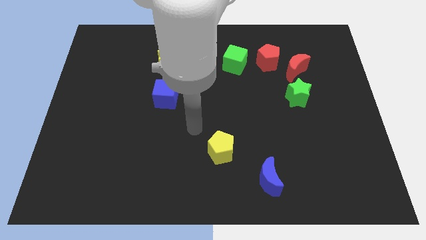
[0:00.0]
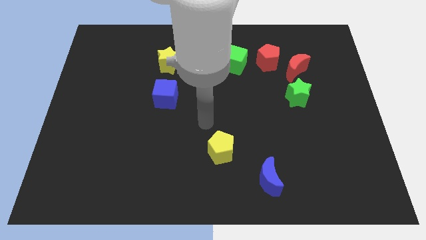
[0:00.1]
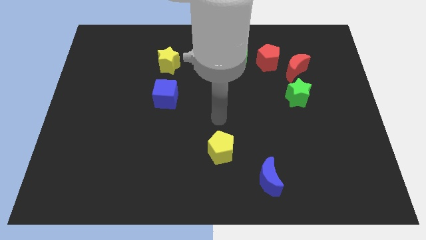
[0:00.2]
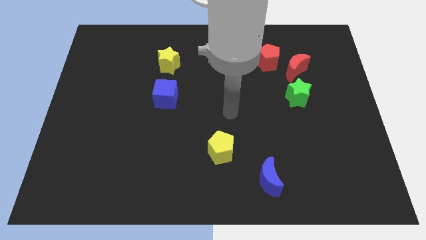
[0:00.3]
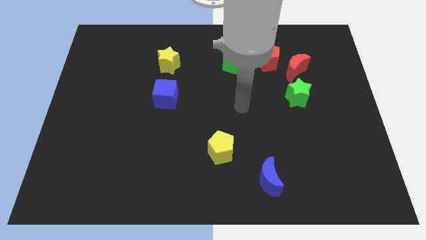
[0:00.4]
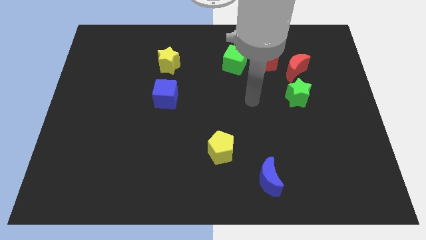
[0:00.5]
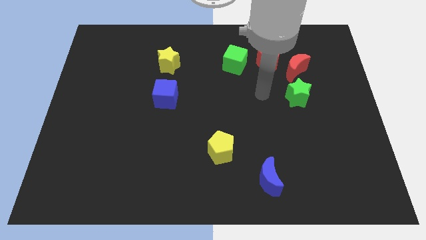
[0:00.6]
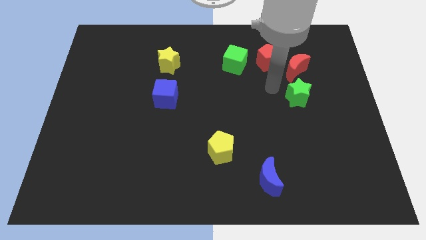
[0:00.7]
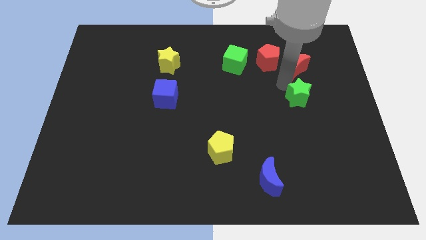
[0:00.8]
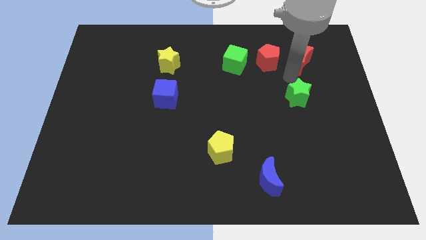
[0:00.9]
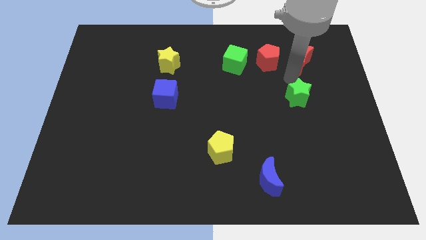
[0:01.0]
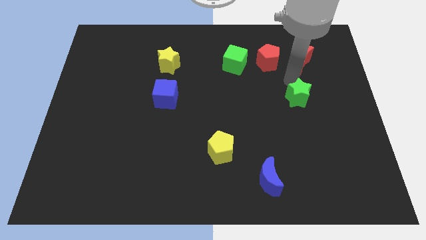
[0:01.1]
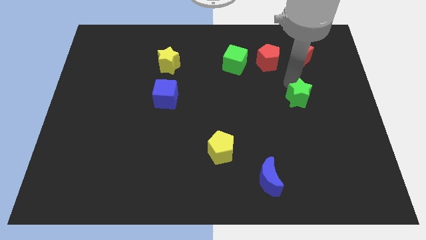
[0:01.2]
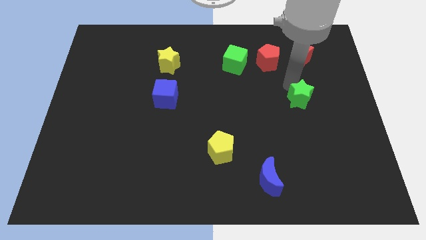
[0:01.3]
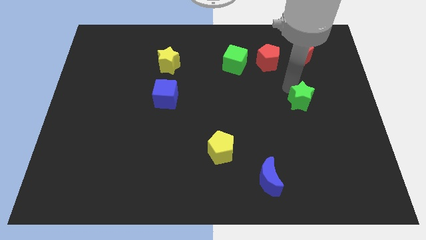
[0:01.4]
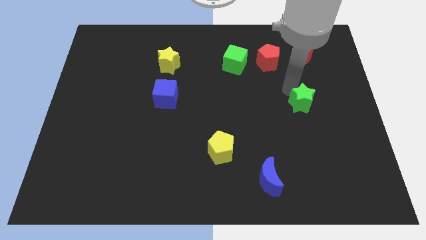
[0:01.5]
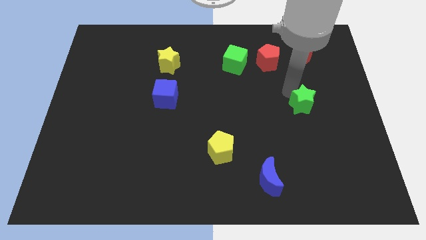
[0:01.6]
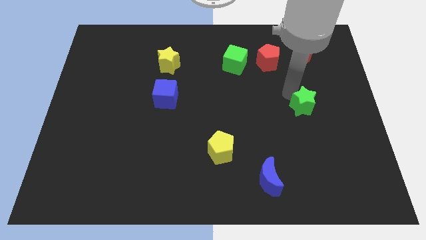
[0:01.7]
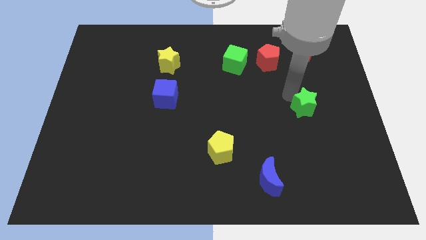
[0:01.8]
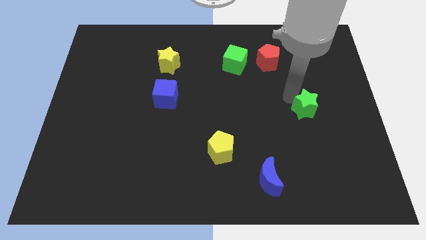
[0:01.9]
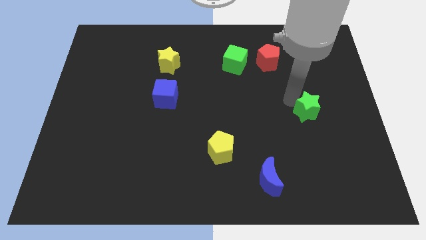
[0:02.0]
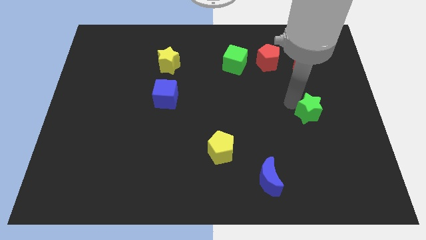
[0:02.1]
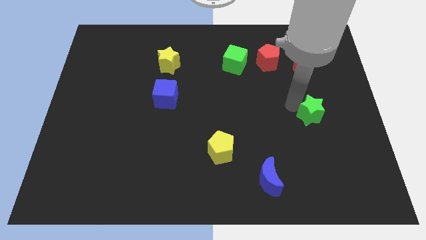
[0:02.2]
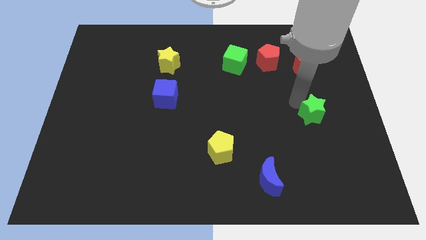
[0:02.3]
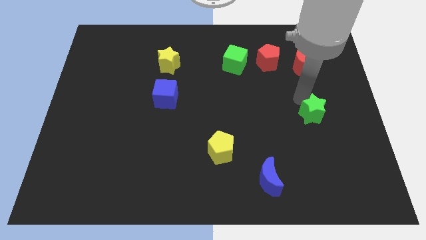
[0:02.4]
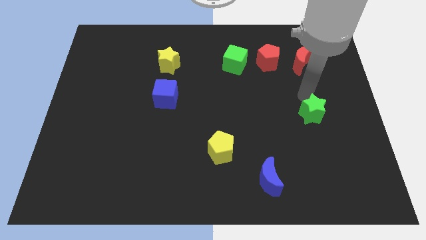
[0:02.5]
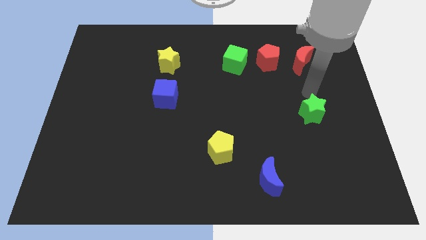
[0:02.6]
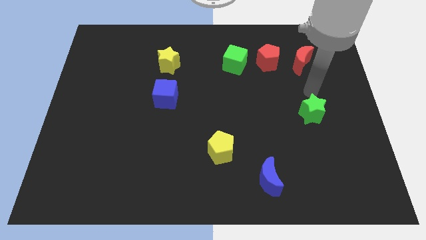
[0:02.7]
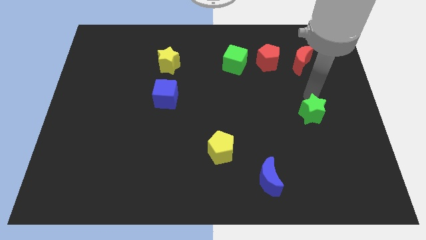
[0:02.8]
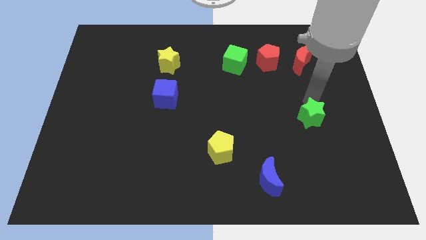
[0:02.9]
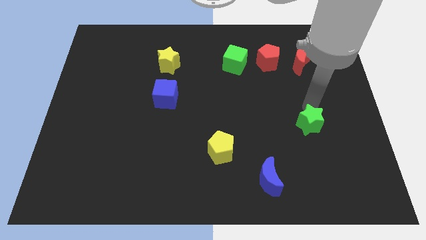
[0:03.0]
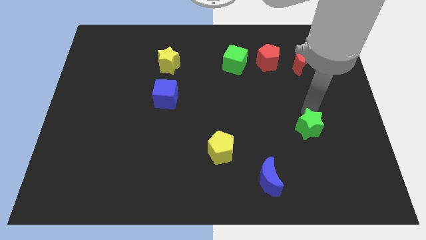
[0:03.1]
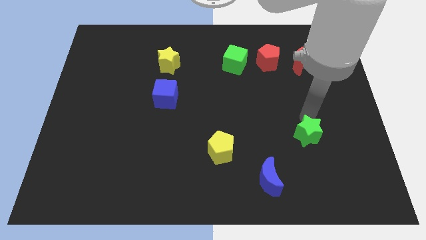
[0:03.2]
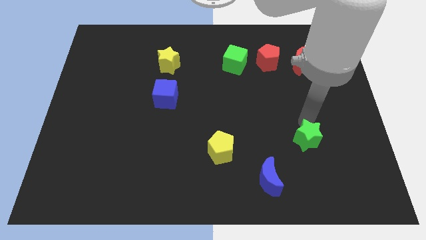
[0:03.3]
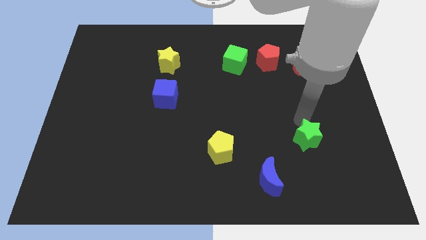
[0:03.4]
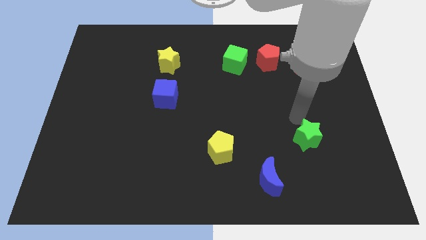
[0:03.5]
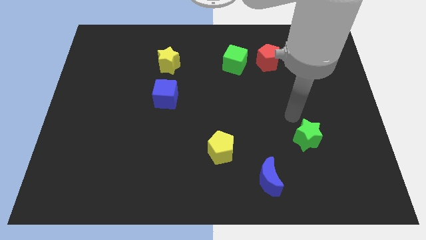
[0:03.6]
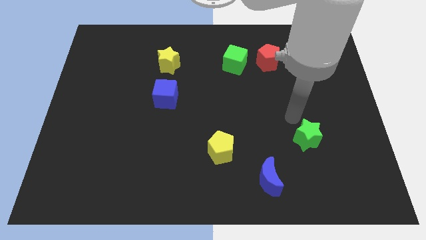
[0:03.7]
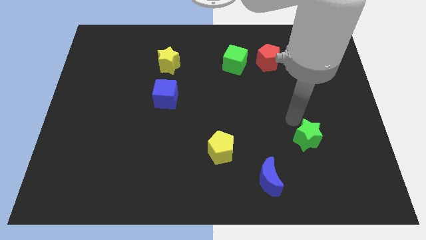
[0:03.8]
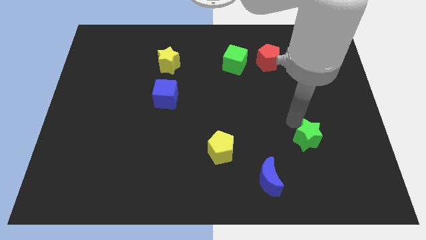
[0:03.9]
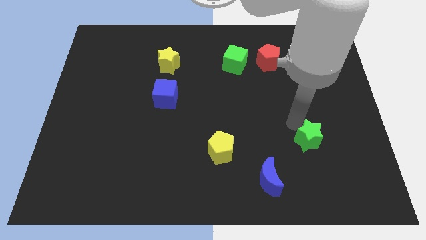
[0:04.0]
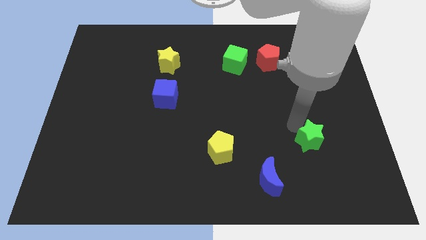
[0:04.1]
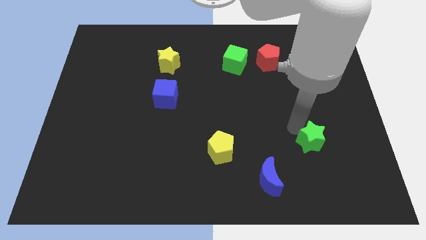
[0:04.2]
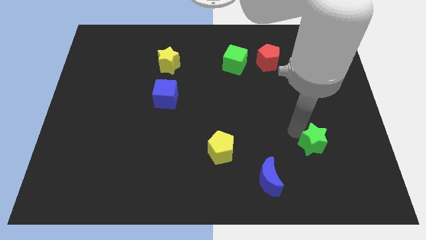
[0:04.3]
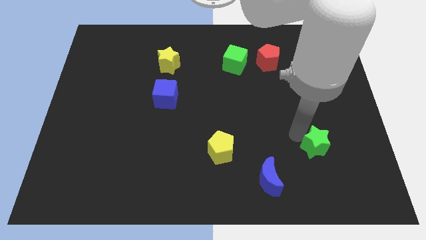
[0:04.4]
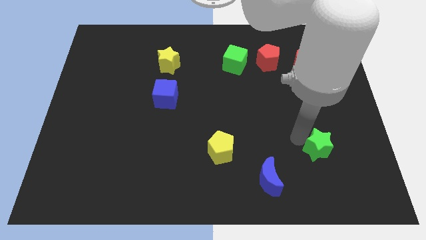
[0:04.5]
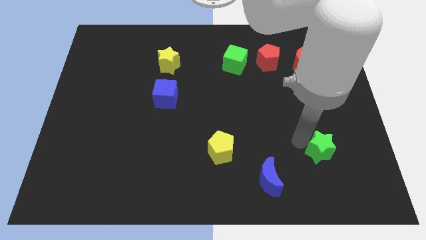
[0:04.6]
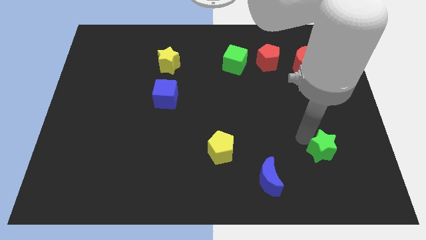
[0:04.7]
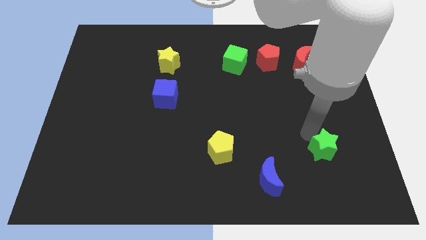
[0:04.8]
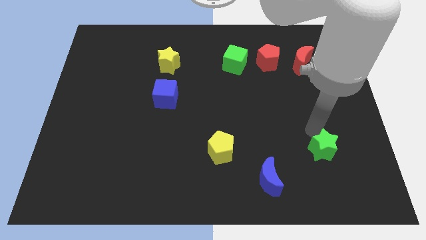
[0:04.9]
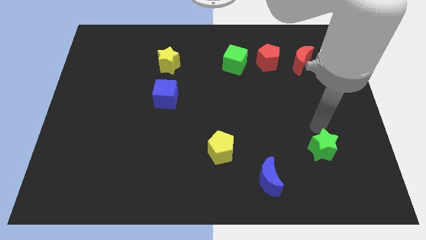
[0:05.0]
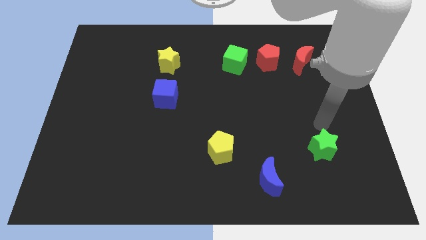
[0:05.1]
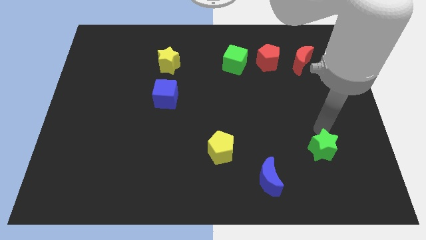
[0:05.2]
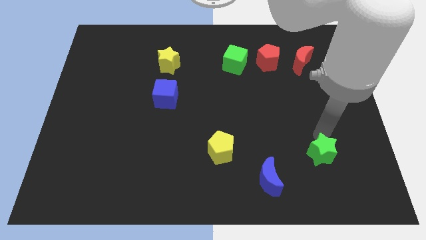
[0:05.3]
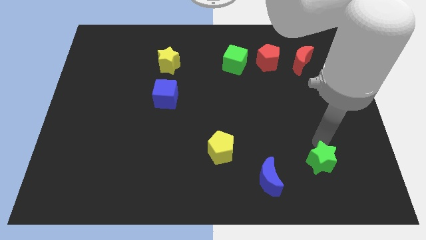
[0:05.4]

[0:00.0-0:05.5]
push the green star to the right side of the blue moon

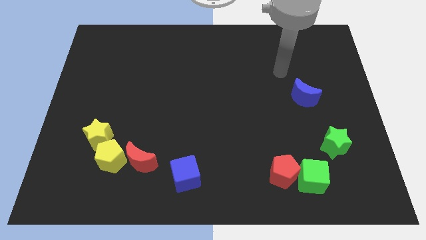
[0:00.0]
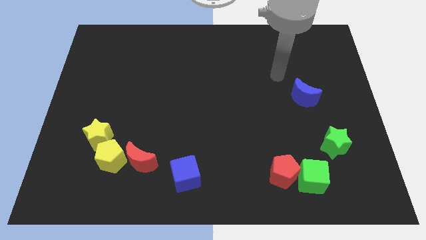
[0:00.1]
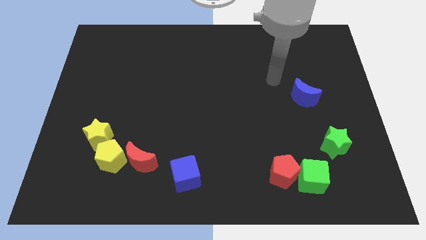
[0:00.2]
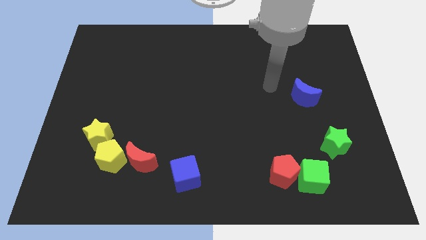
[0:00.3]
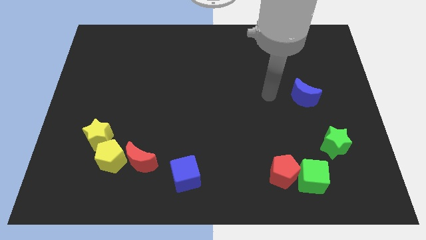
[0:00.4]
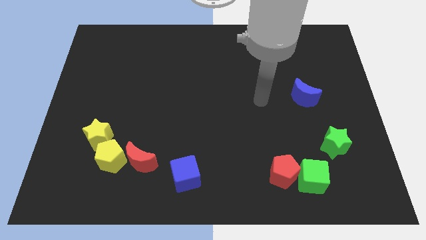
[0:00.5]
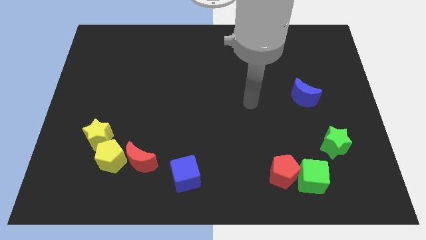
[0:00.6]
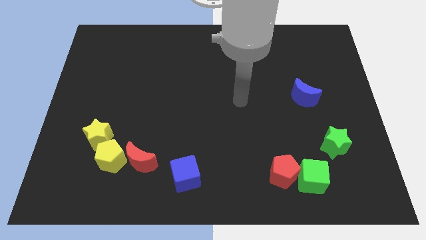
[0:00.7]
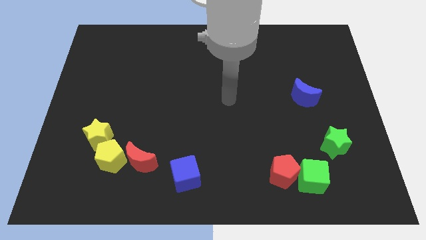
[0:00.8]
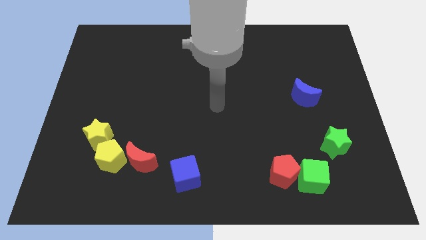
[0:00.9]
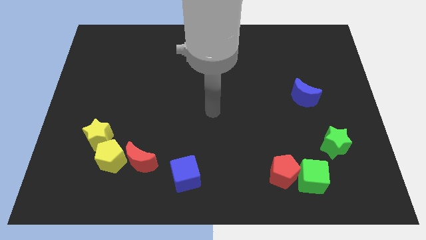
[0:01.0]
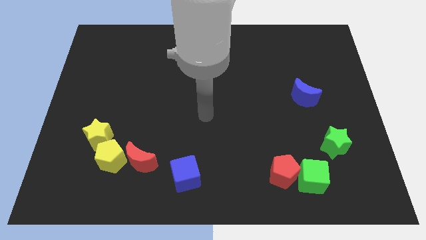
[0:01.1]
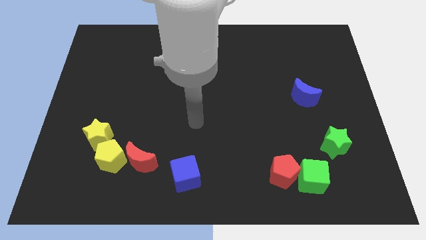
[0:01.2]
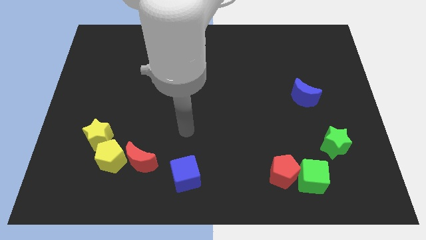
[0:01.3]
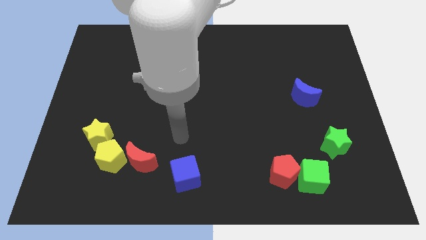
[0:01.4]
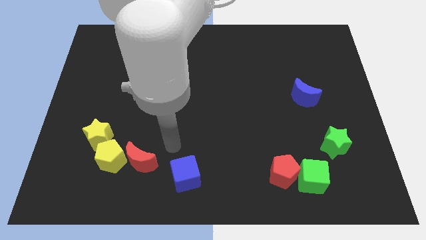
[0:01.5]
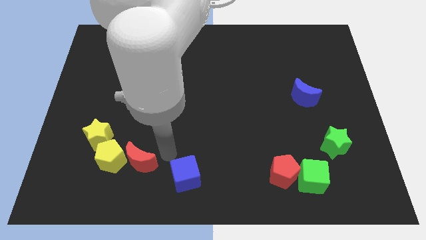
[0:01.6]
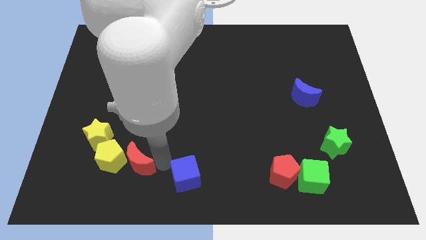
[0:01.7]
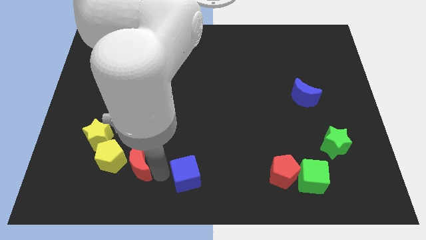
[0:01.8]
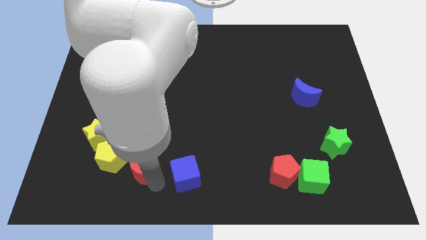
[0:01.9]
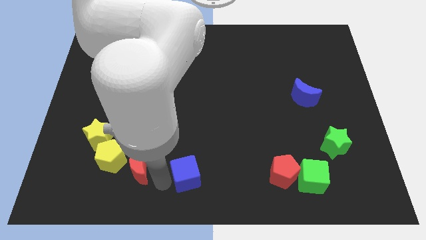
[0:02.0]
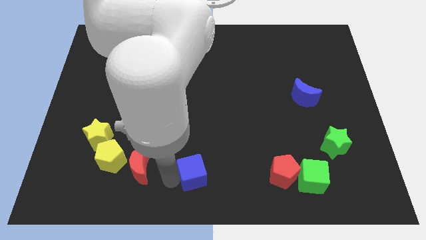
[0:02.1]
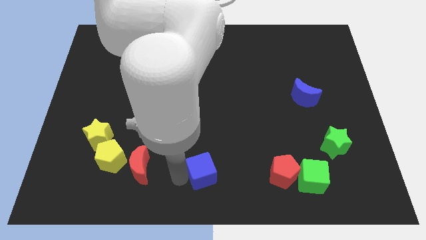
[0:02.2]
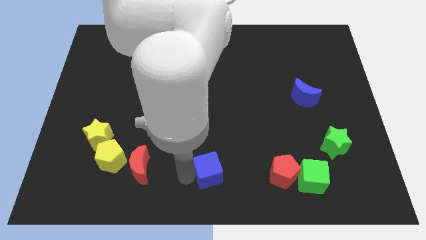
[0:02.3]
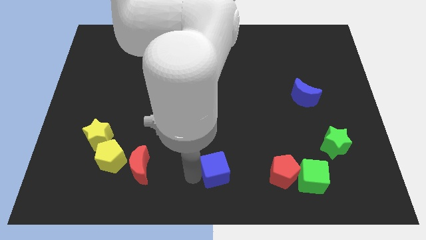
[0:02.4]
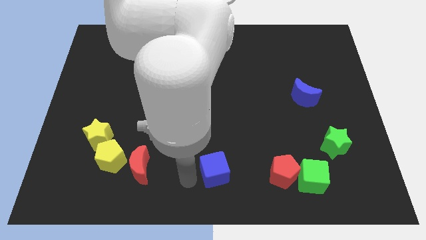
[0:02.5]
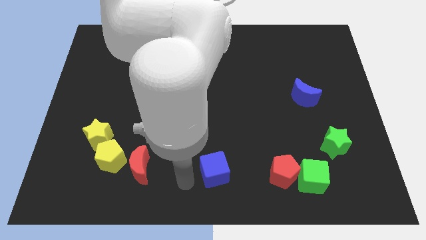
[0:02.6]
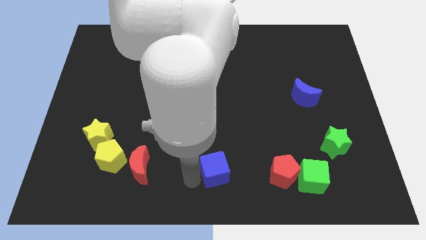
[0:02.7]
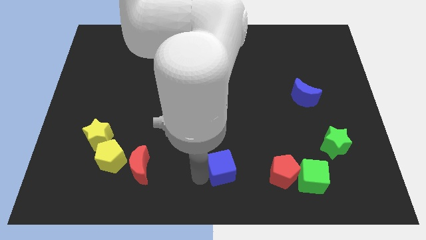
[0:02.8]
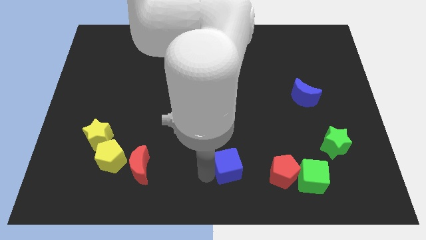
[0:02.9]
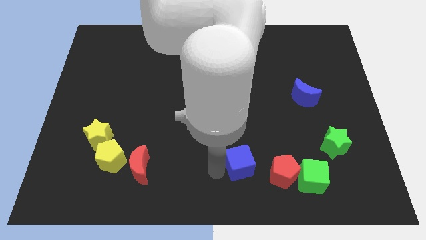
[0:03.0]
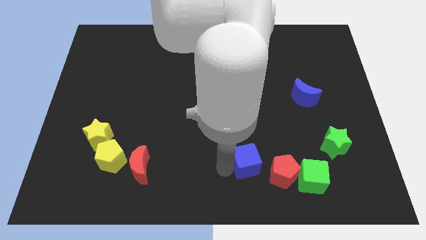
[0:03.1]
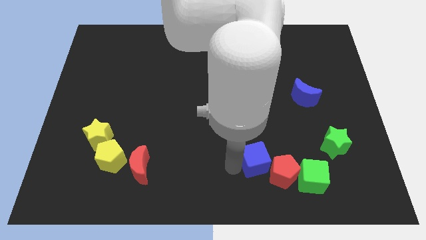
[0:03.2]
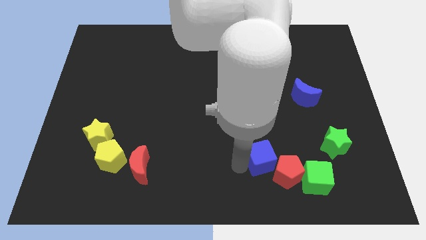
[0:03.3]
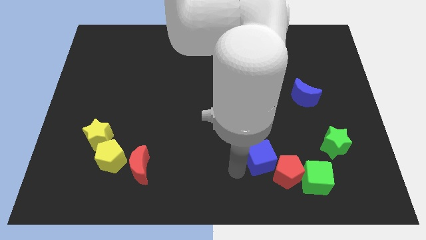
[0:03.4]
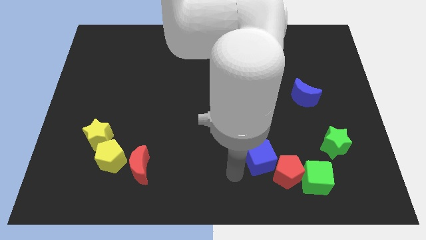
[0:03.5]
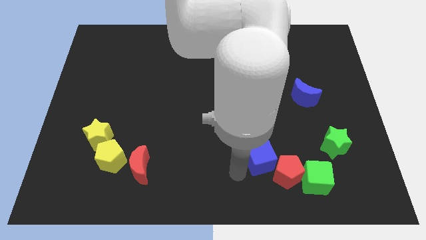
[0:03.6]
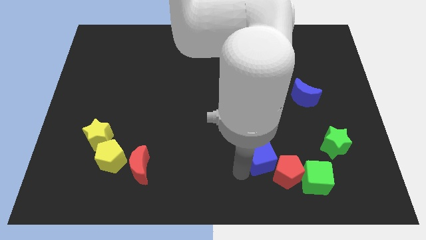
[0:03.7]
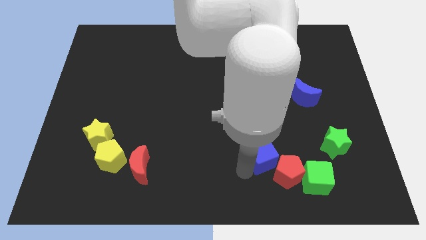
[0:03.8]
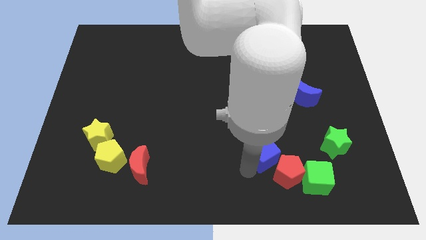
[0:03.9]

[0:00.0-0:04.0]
slide the blue cube just left of the green star
